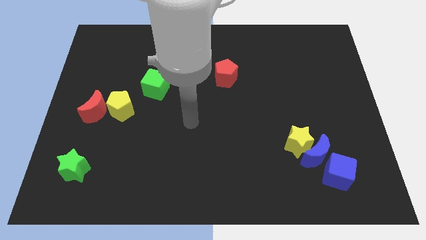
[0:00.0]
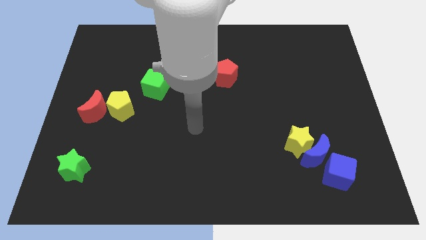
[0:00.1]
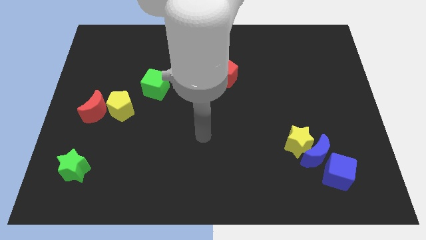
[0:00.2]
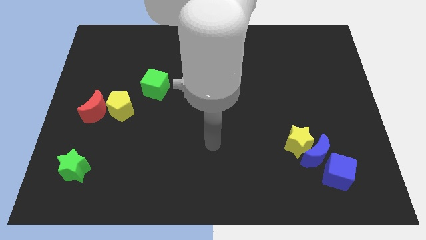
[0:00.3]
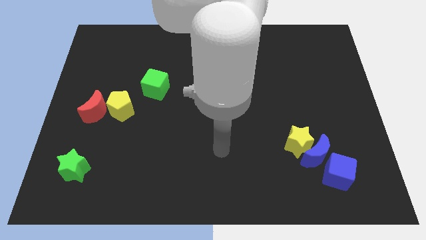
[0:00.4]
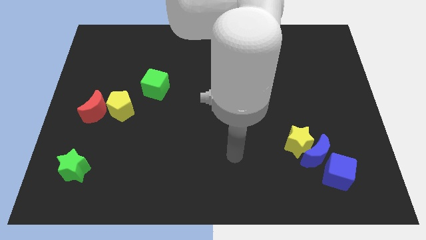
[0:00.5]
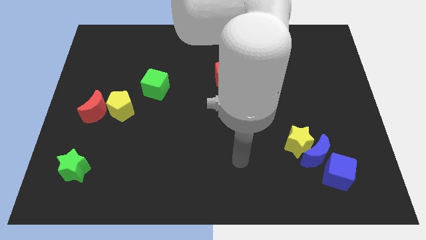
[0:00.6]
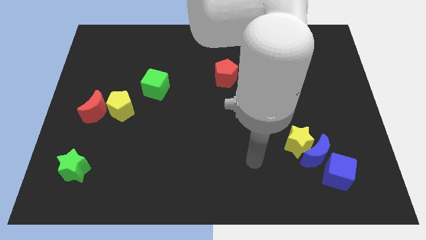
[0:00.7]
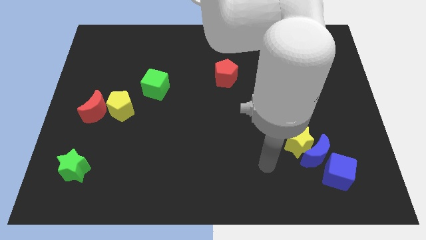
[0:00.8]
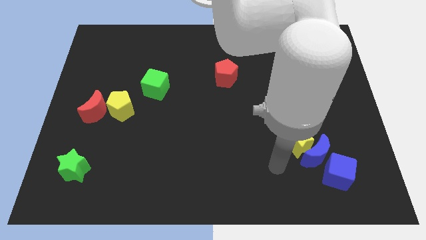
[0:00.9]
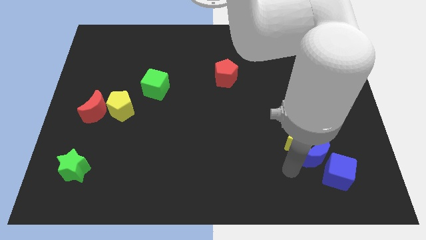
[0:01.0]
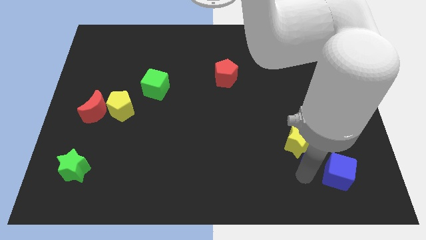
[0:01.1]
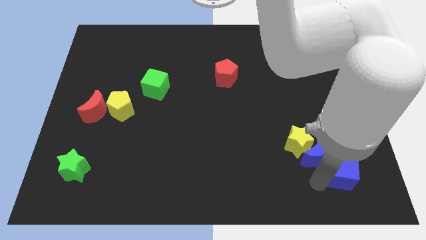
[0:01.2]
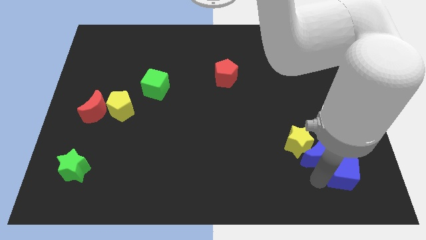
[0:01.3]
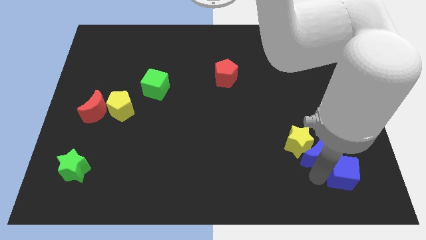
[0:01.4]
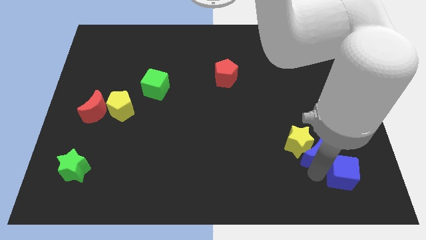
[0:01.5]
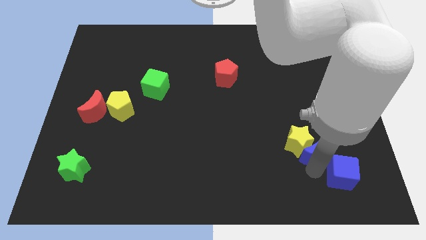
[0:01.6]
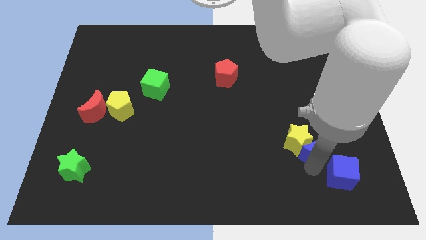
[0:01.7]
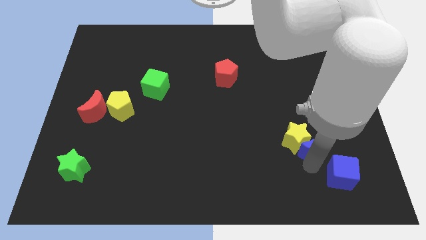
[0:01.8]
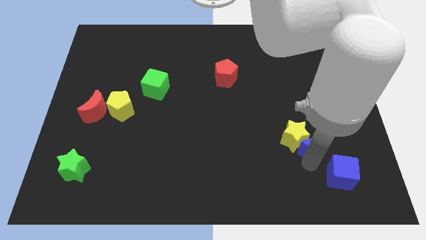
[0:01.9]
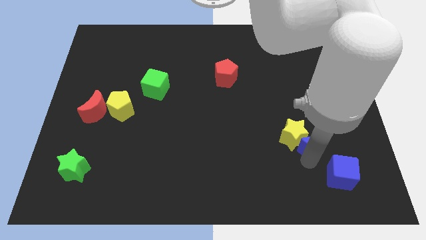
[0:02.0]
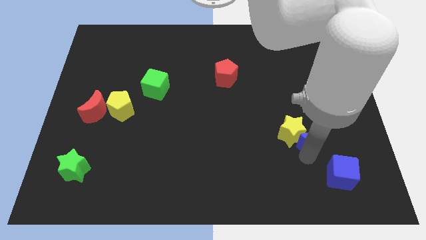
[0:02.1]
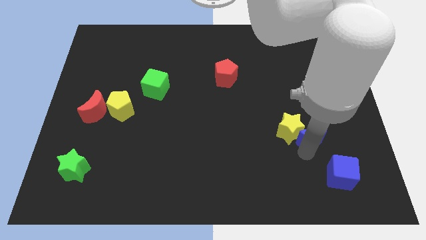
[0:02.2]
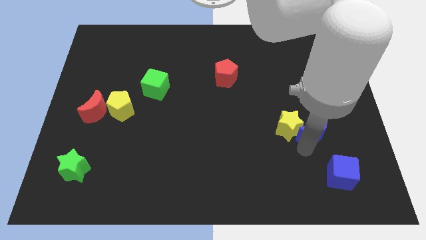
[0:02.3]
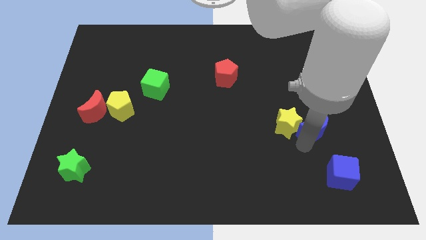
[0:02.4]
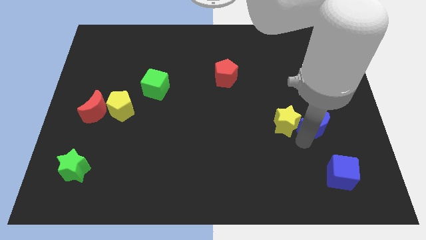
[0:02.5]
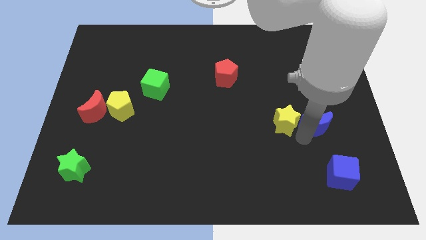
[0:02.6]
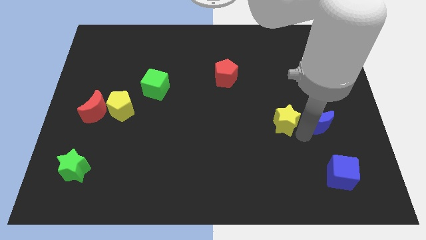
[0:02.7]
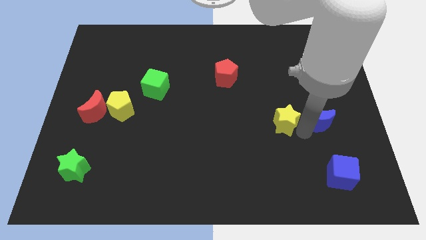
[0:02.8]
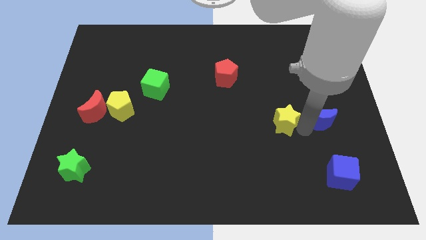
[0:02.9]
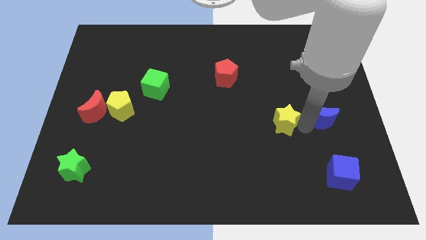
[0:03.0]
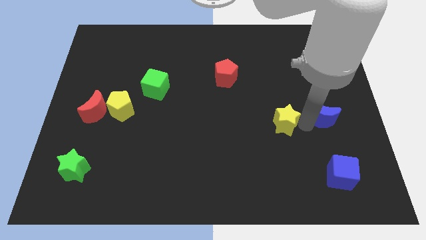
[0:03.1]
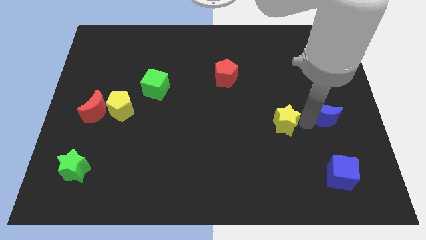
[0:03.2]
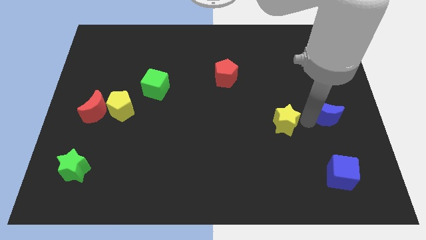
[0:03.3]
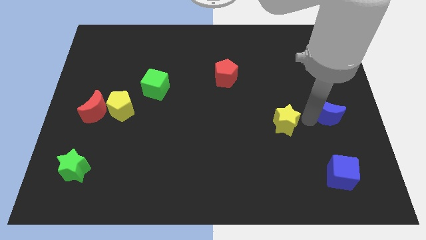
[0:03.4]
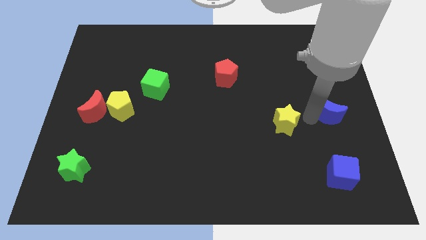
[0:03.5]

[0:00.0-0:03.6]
separate the blue moon from the yellow star and blue cube

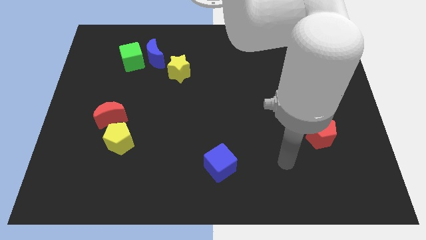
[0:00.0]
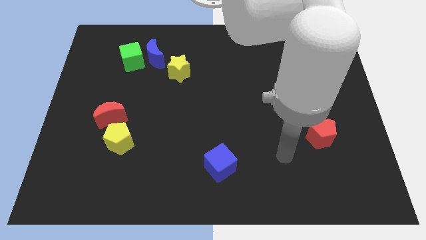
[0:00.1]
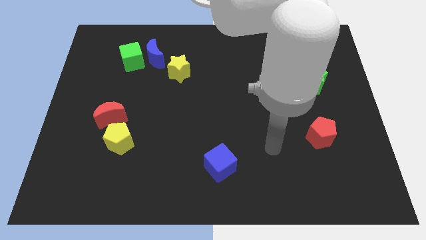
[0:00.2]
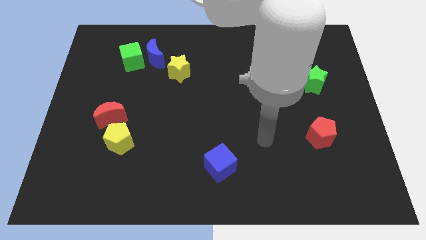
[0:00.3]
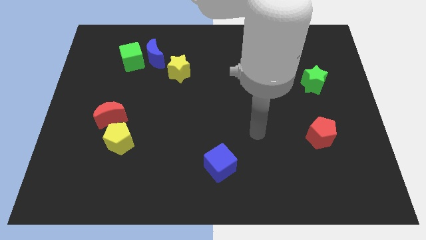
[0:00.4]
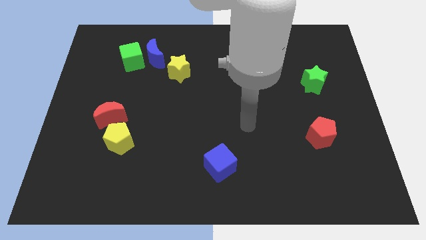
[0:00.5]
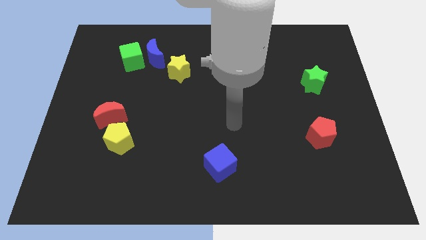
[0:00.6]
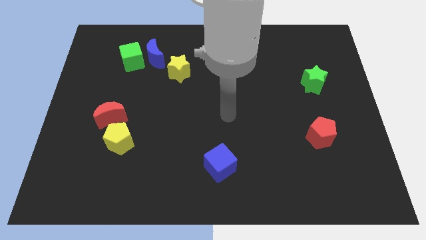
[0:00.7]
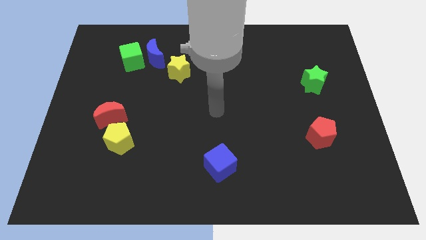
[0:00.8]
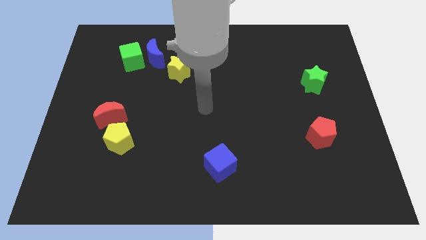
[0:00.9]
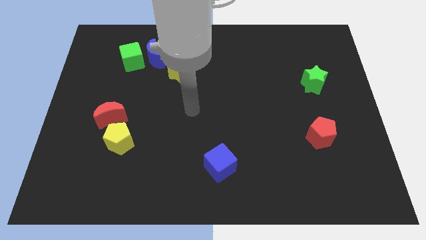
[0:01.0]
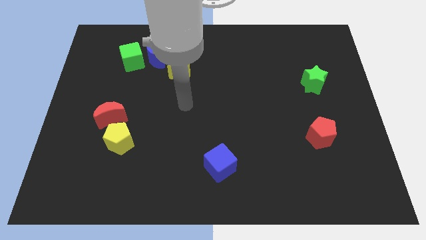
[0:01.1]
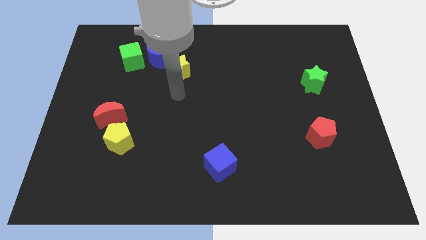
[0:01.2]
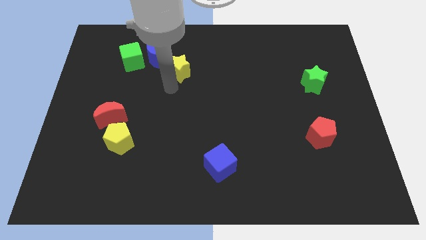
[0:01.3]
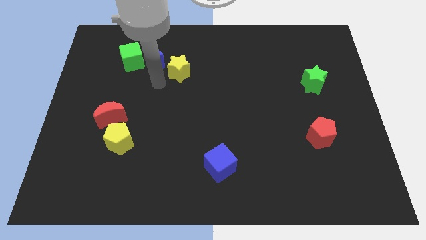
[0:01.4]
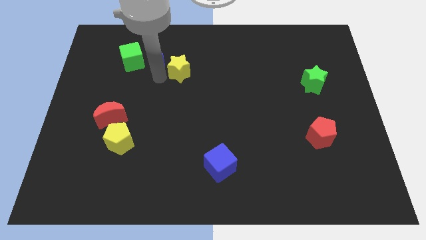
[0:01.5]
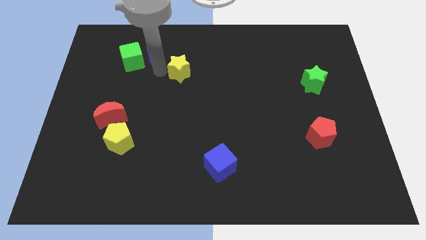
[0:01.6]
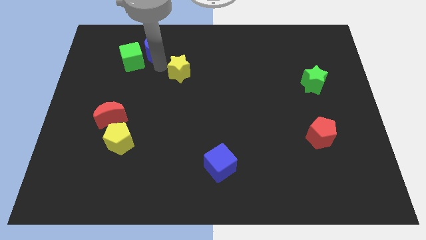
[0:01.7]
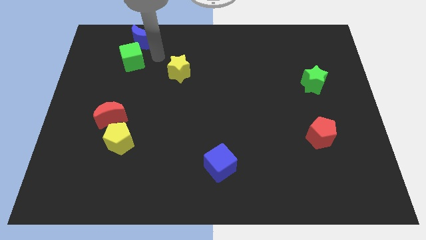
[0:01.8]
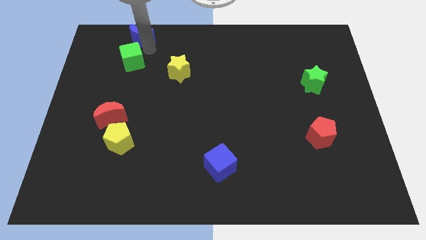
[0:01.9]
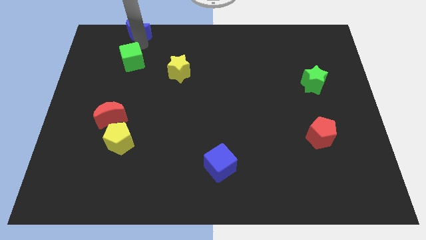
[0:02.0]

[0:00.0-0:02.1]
move the green cube away from the blue moon

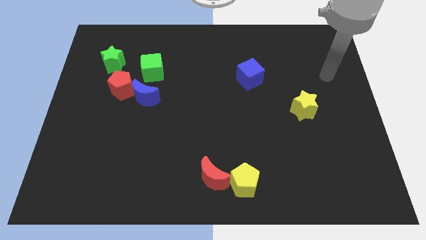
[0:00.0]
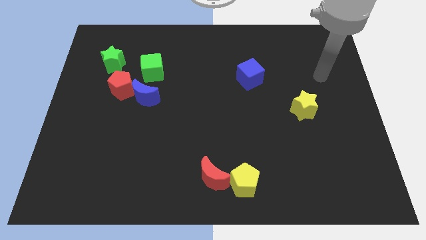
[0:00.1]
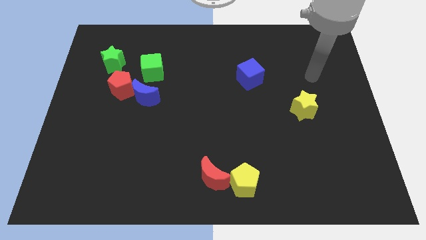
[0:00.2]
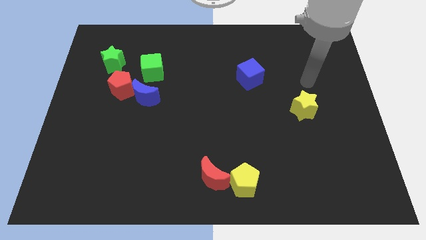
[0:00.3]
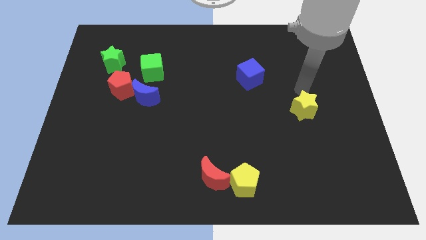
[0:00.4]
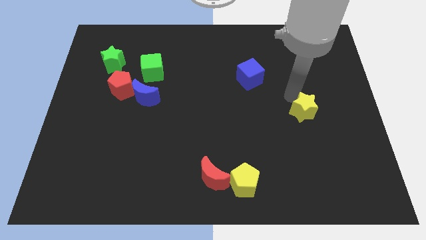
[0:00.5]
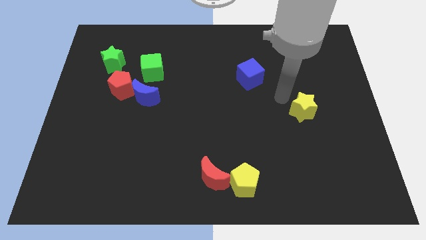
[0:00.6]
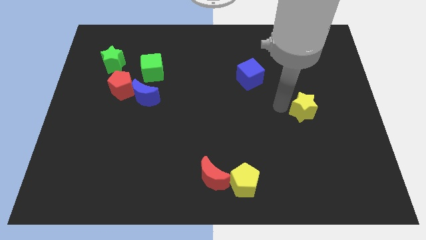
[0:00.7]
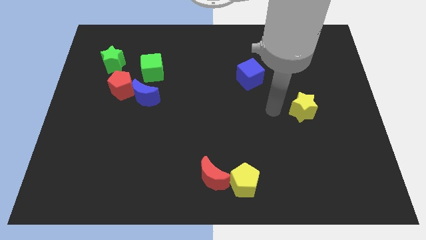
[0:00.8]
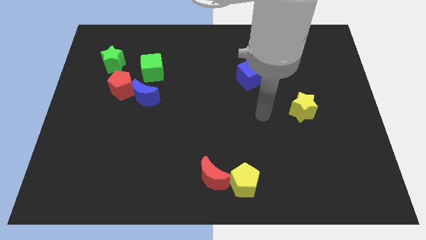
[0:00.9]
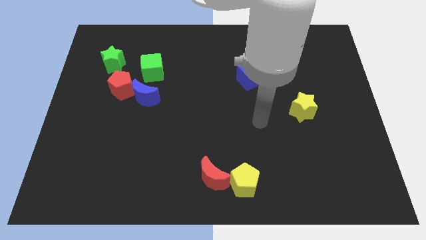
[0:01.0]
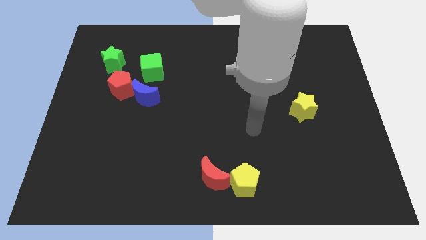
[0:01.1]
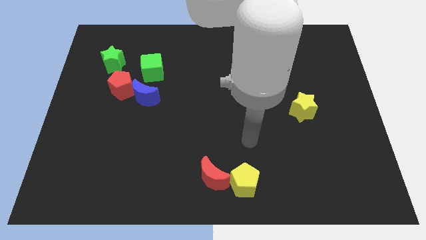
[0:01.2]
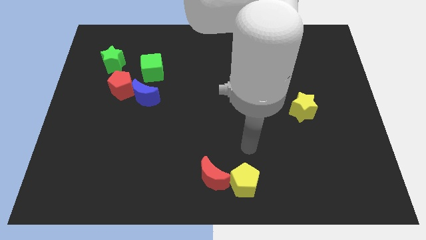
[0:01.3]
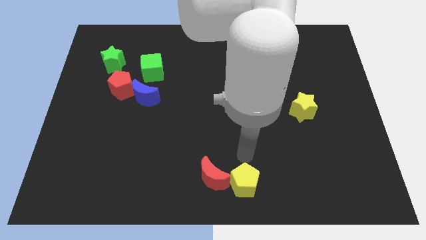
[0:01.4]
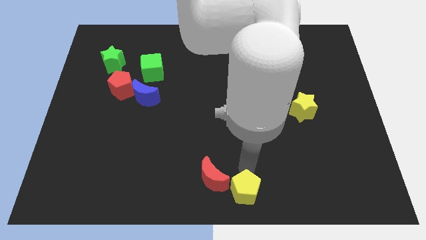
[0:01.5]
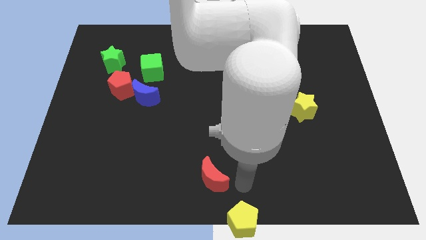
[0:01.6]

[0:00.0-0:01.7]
move the red moon away from the yellow pentagon

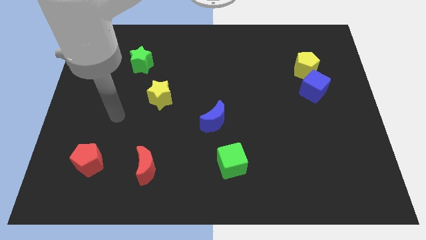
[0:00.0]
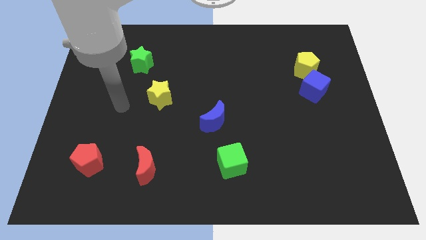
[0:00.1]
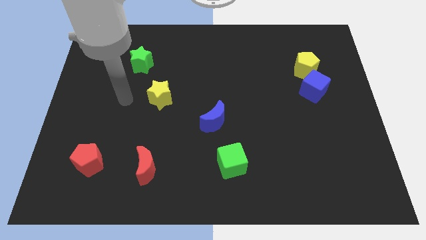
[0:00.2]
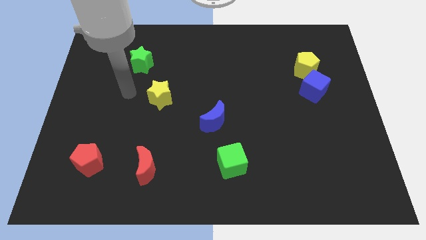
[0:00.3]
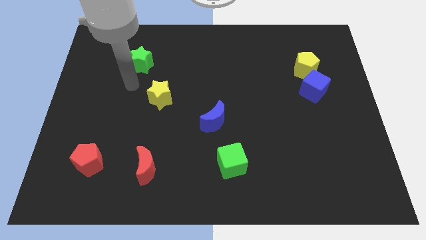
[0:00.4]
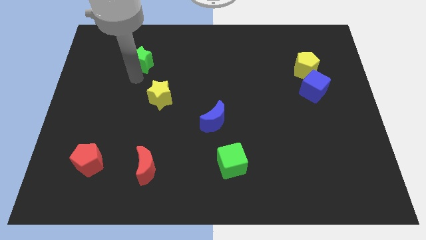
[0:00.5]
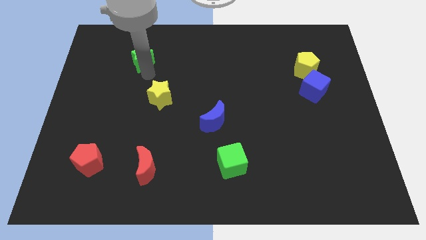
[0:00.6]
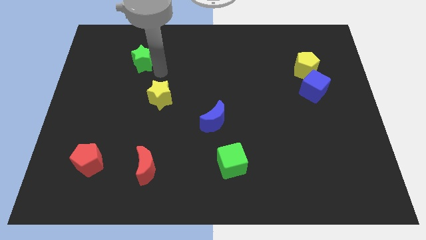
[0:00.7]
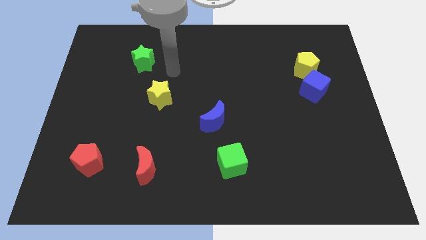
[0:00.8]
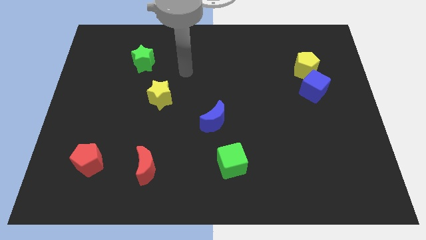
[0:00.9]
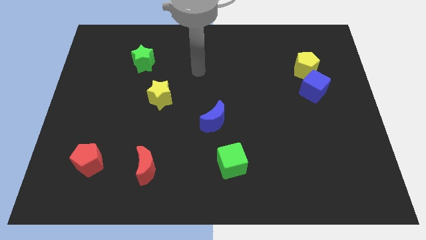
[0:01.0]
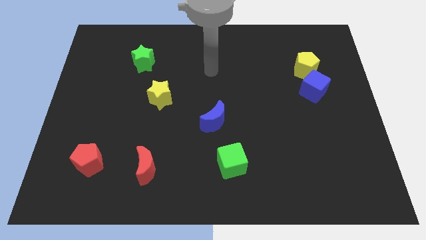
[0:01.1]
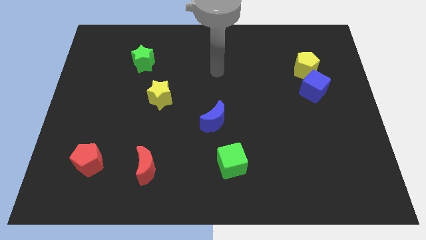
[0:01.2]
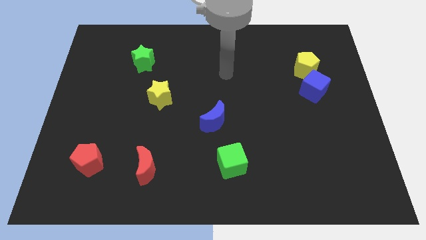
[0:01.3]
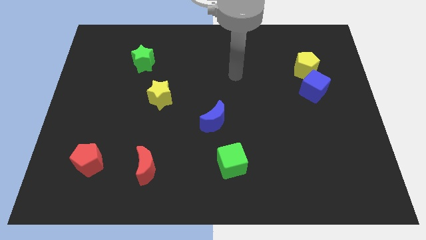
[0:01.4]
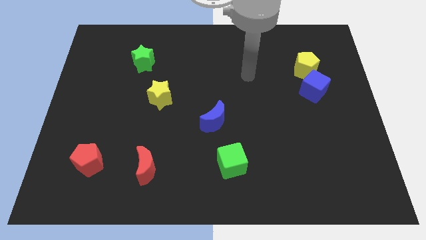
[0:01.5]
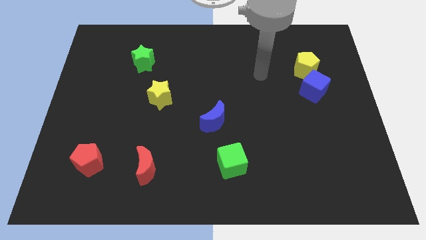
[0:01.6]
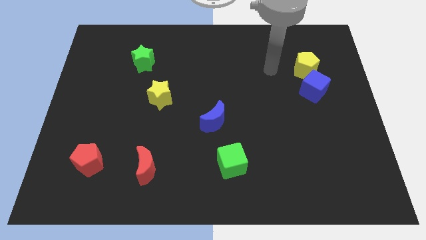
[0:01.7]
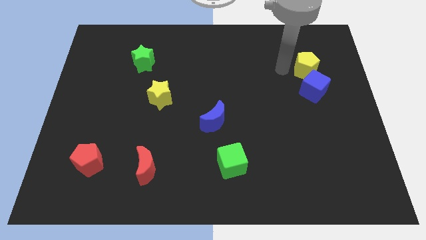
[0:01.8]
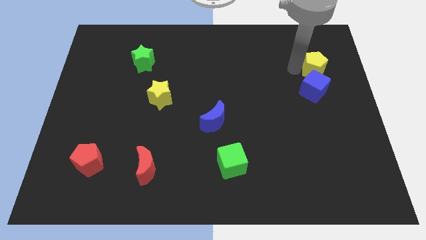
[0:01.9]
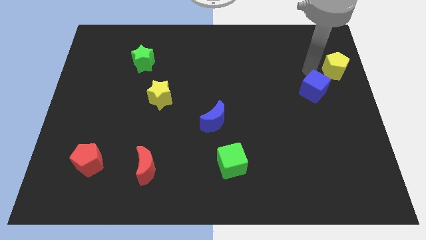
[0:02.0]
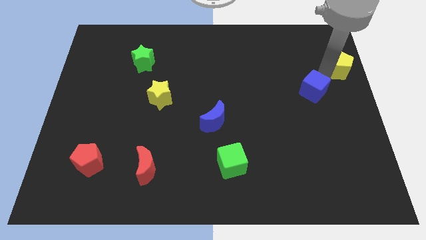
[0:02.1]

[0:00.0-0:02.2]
pull the blue cube apart from the yellow pentagon
